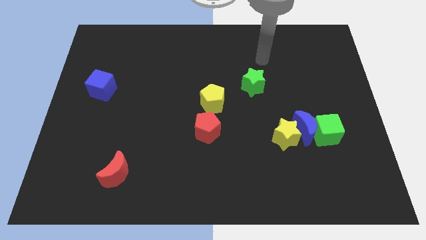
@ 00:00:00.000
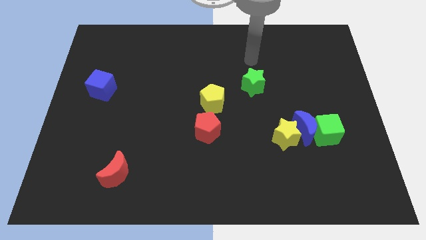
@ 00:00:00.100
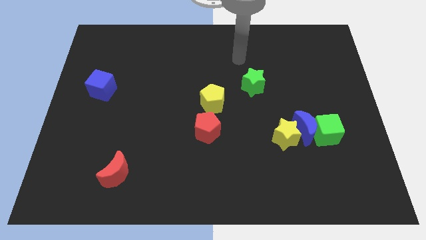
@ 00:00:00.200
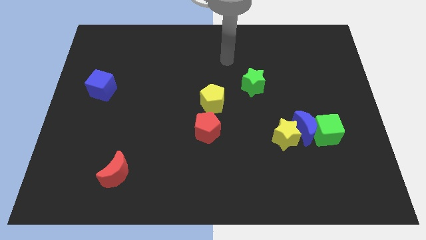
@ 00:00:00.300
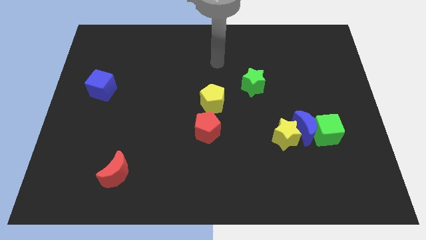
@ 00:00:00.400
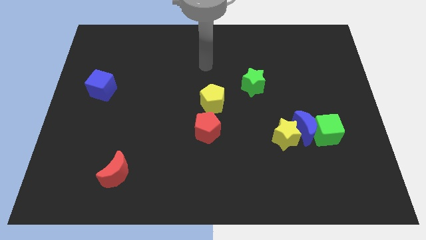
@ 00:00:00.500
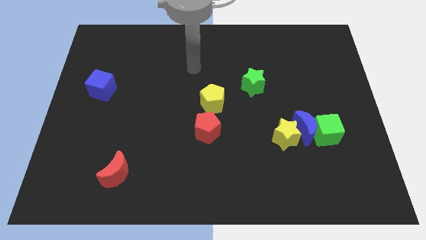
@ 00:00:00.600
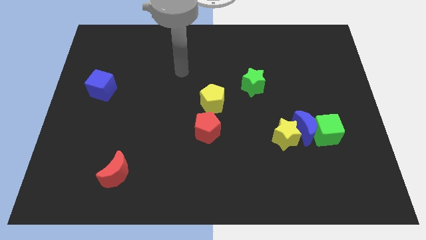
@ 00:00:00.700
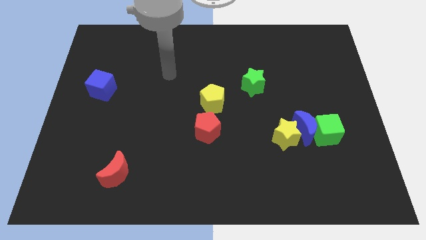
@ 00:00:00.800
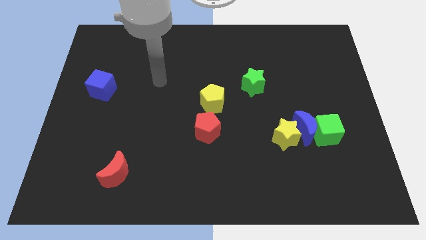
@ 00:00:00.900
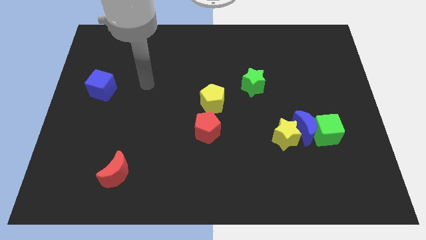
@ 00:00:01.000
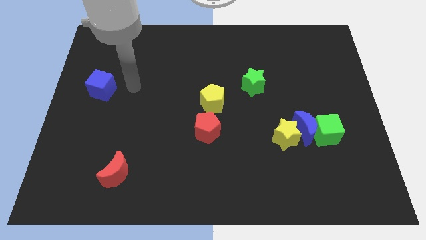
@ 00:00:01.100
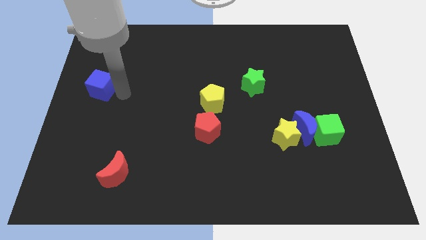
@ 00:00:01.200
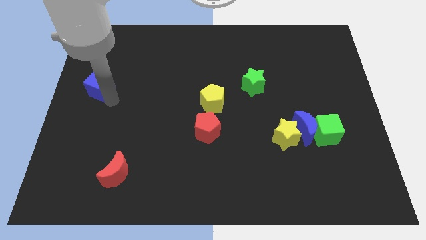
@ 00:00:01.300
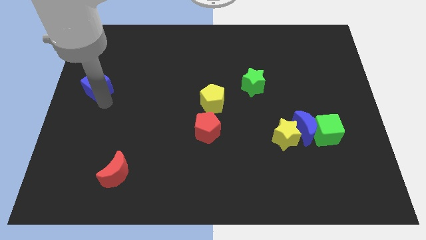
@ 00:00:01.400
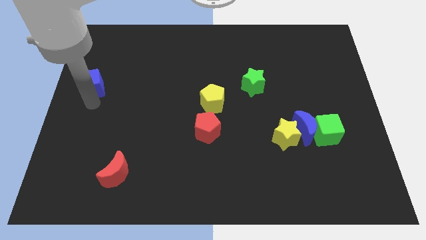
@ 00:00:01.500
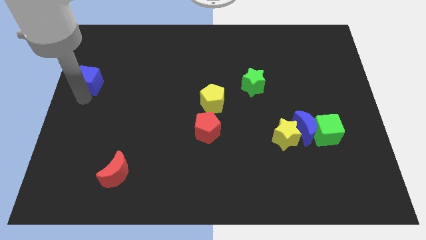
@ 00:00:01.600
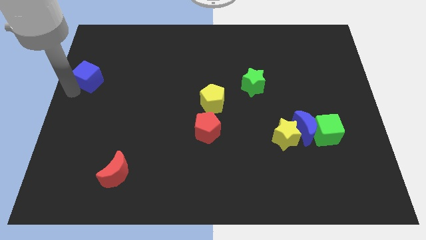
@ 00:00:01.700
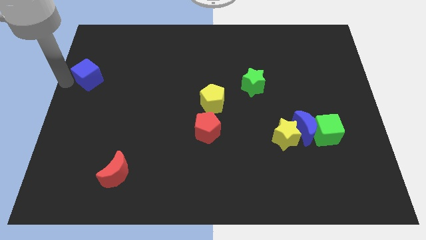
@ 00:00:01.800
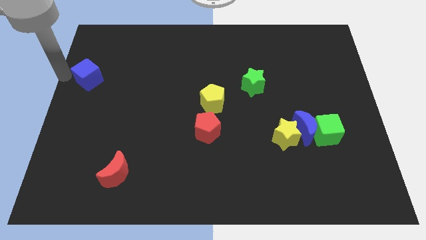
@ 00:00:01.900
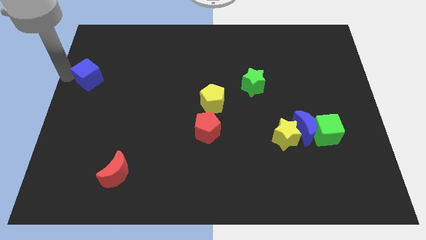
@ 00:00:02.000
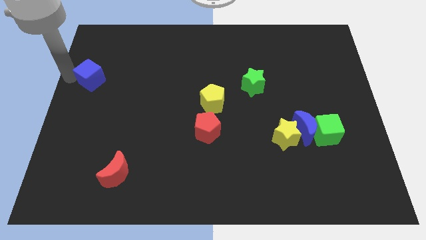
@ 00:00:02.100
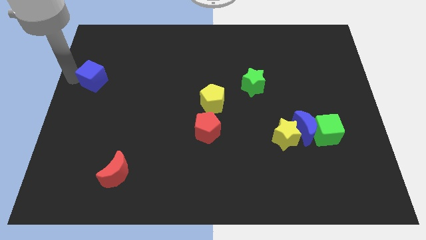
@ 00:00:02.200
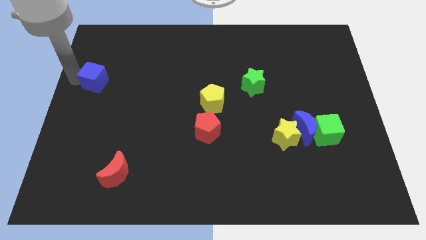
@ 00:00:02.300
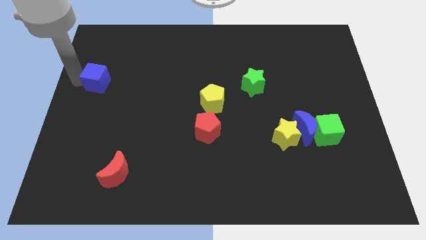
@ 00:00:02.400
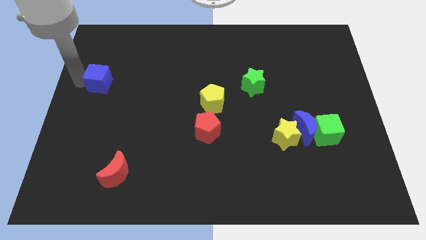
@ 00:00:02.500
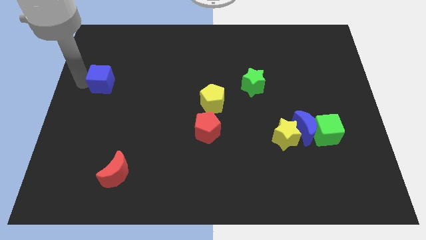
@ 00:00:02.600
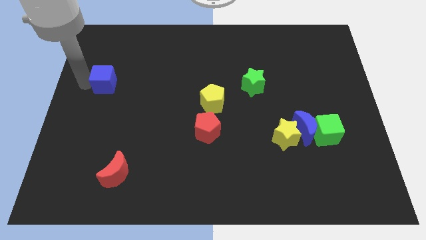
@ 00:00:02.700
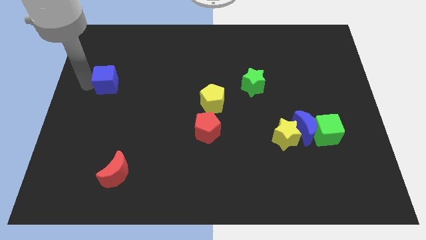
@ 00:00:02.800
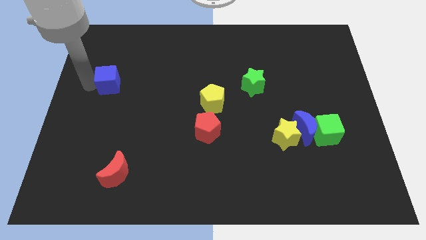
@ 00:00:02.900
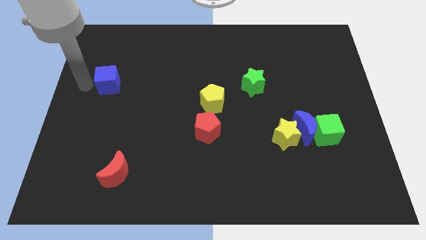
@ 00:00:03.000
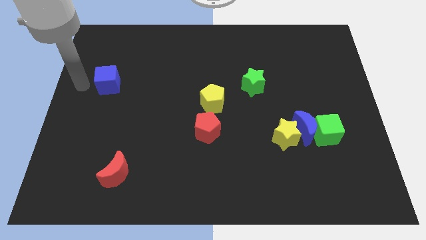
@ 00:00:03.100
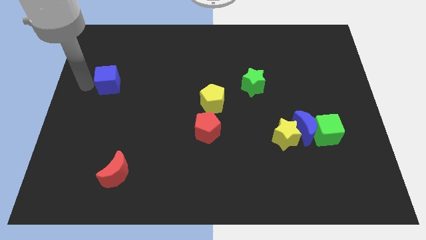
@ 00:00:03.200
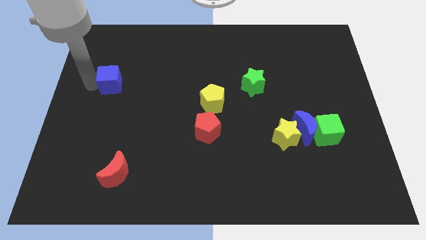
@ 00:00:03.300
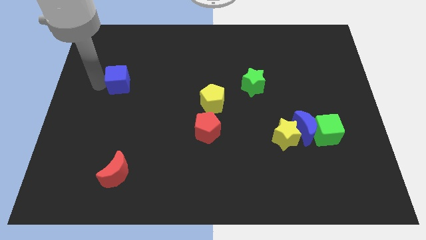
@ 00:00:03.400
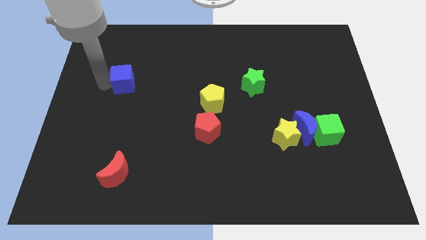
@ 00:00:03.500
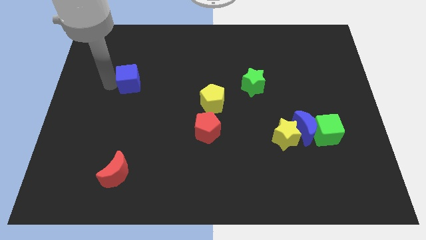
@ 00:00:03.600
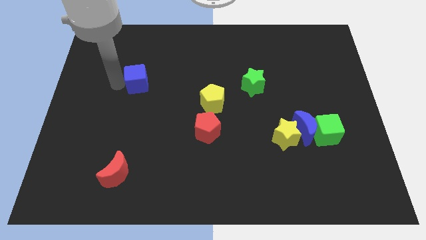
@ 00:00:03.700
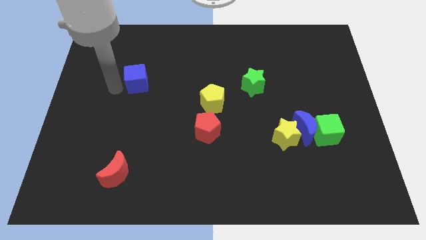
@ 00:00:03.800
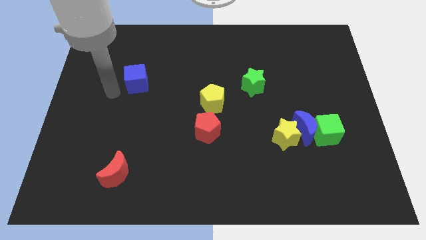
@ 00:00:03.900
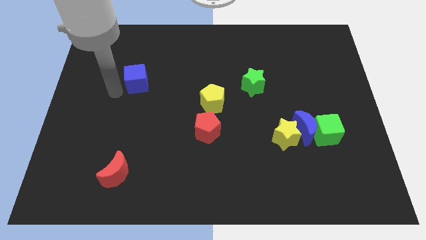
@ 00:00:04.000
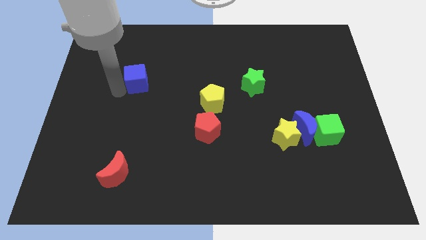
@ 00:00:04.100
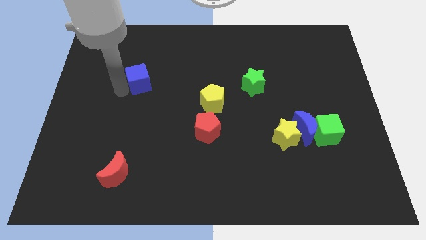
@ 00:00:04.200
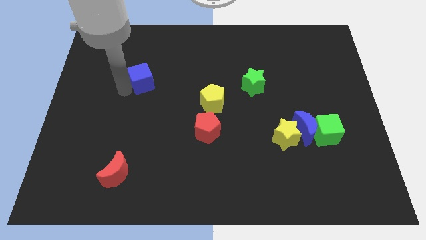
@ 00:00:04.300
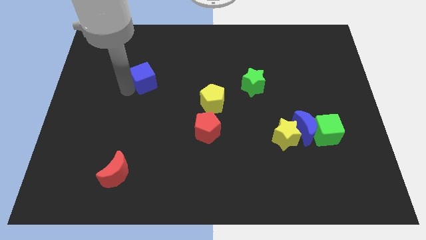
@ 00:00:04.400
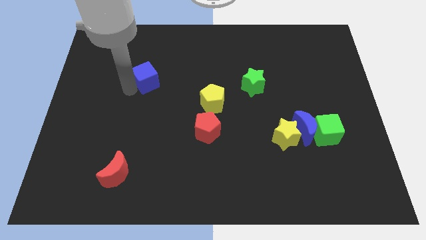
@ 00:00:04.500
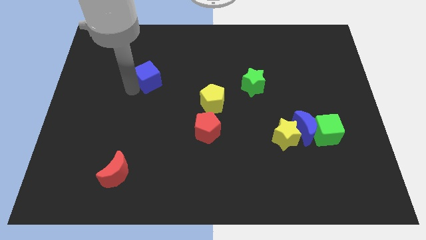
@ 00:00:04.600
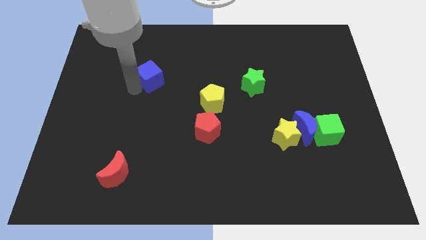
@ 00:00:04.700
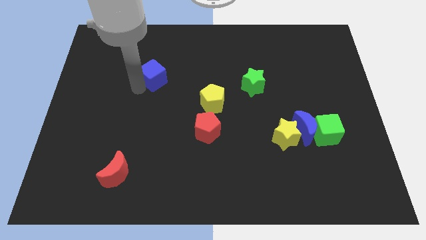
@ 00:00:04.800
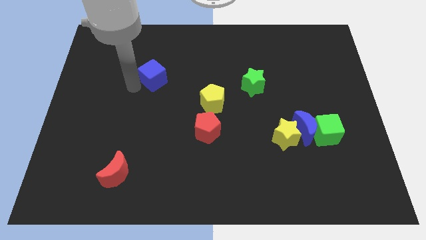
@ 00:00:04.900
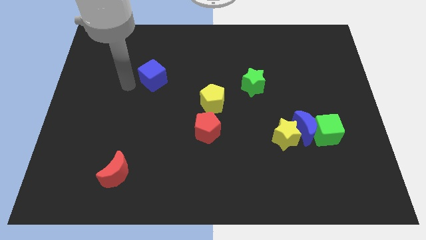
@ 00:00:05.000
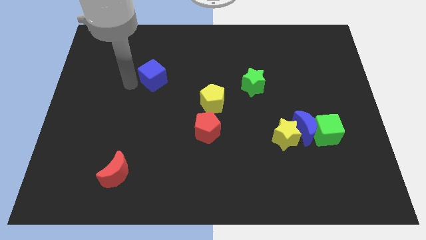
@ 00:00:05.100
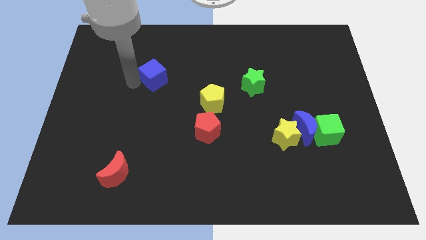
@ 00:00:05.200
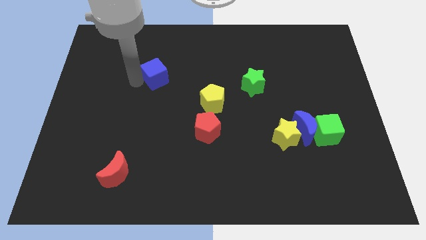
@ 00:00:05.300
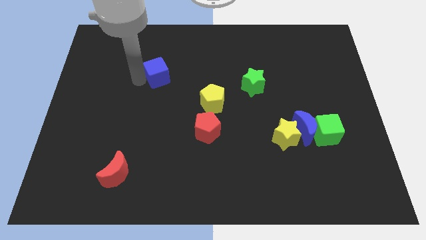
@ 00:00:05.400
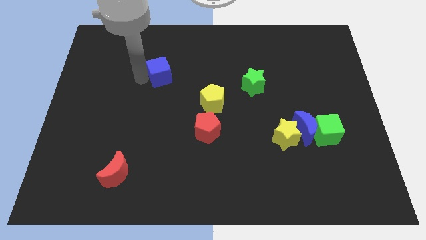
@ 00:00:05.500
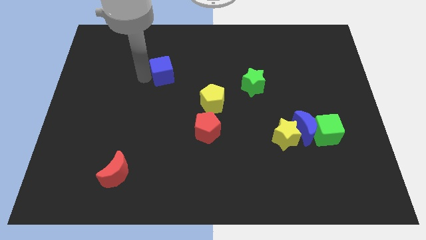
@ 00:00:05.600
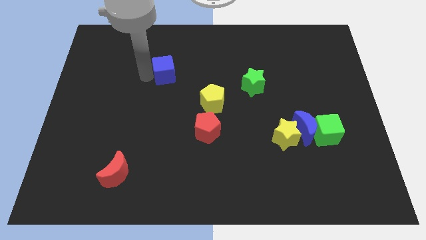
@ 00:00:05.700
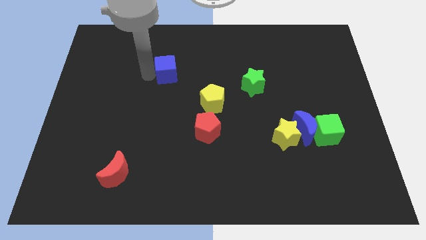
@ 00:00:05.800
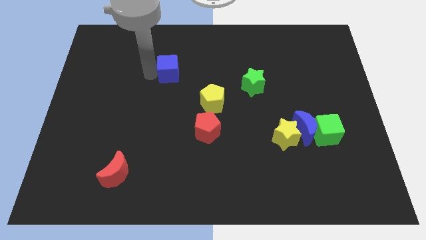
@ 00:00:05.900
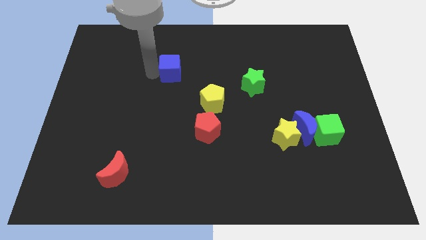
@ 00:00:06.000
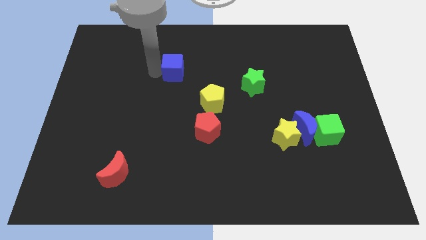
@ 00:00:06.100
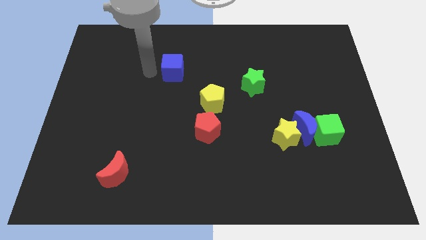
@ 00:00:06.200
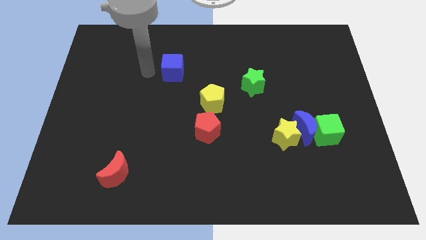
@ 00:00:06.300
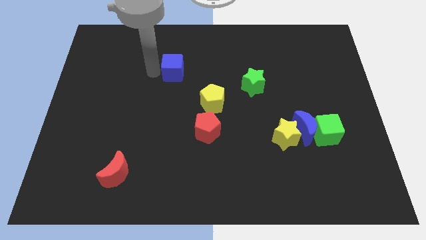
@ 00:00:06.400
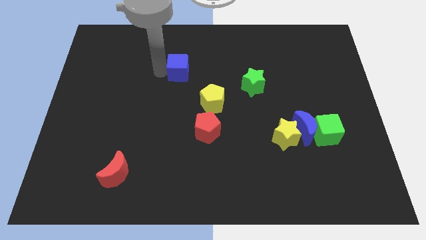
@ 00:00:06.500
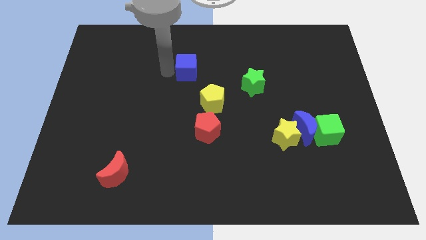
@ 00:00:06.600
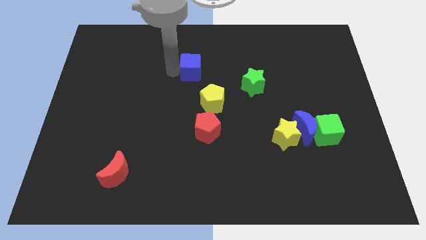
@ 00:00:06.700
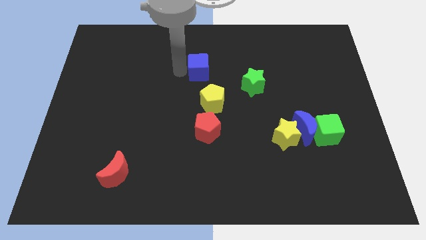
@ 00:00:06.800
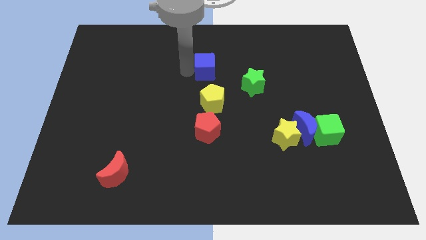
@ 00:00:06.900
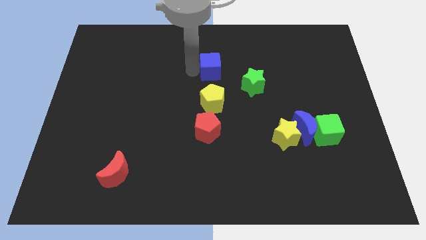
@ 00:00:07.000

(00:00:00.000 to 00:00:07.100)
put the blue cube to the top left side of the green star
